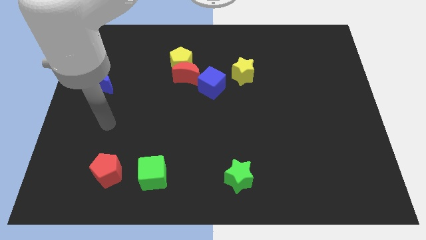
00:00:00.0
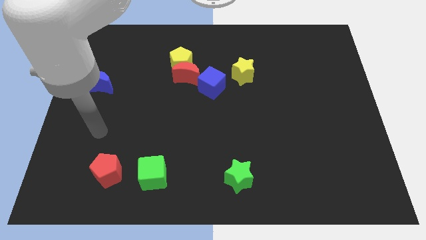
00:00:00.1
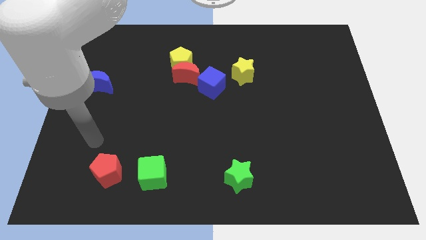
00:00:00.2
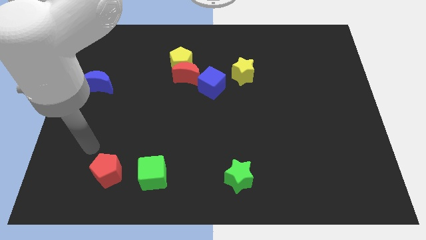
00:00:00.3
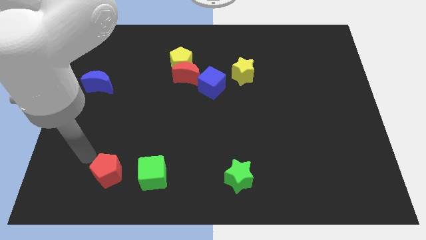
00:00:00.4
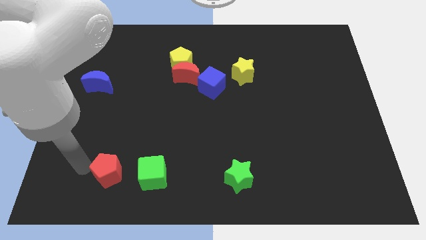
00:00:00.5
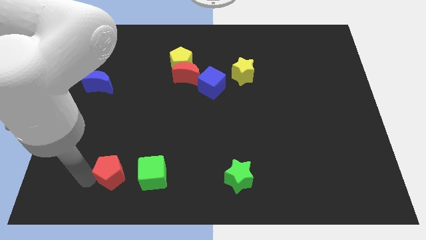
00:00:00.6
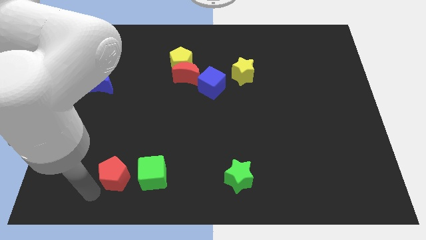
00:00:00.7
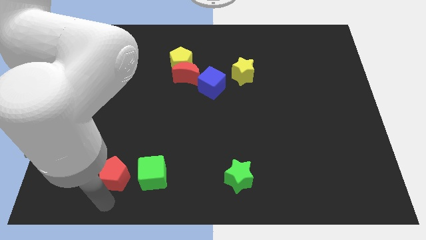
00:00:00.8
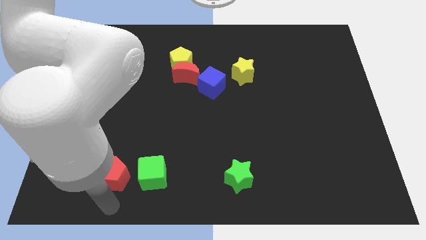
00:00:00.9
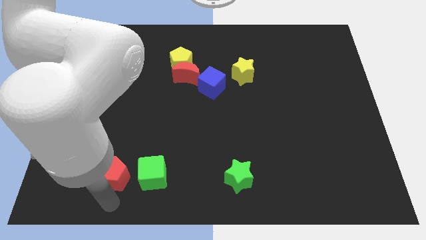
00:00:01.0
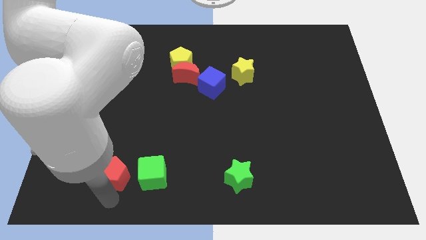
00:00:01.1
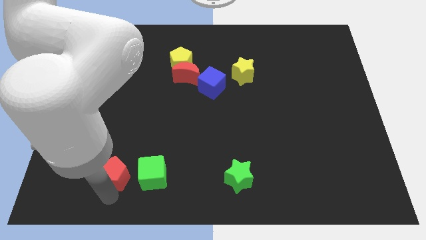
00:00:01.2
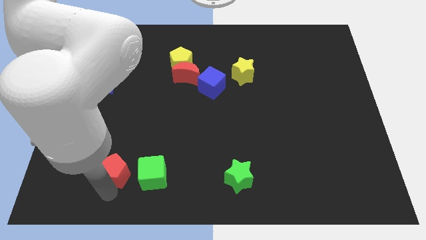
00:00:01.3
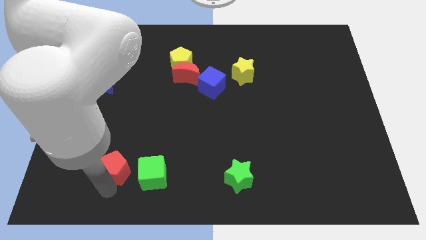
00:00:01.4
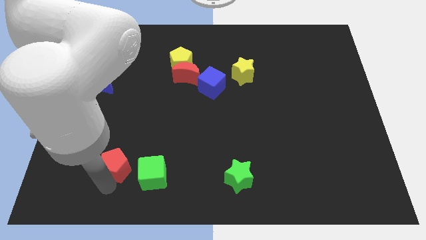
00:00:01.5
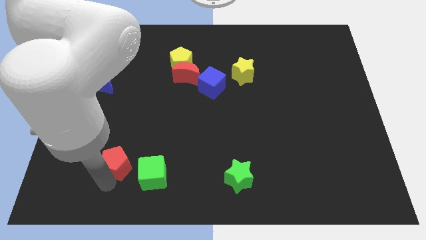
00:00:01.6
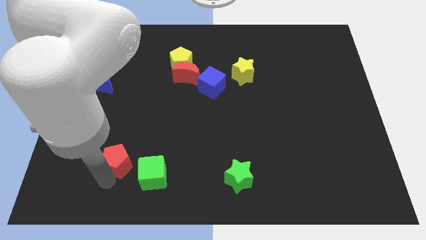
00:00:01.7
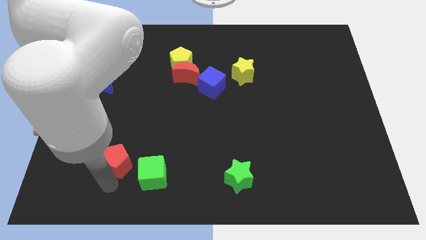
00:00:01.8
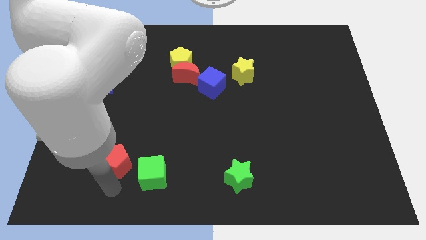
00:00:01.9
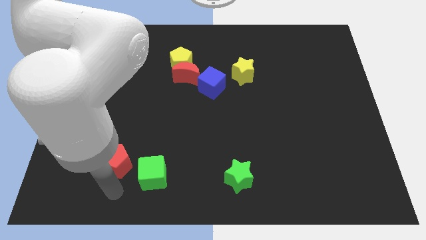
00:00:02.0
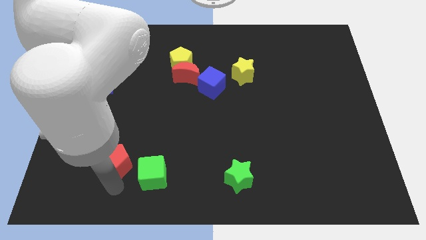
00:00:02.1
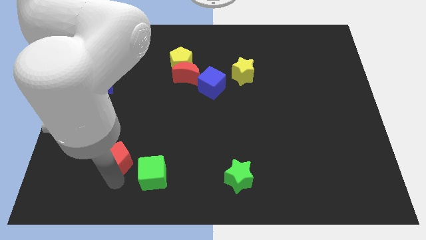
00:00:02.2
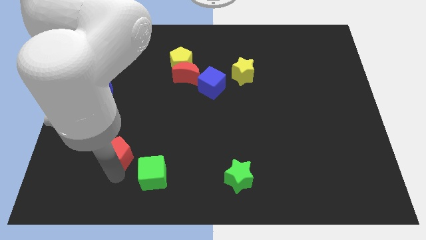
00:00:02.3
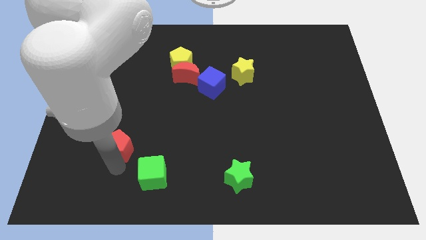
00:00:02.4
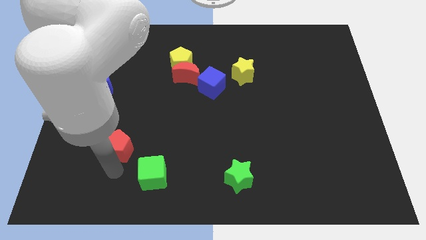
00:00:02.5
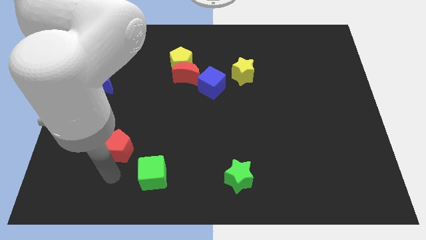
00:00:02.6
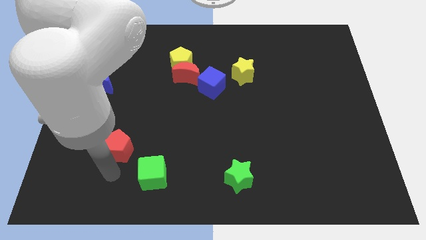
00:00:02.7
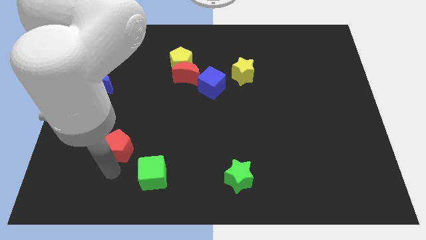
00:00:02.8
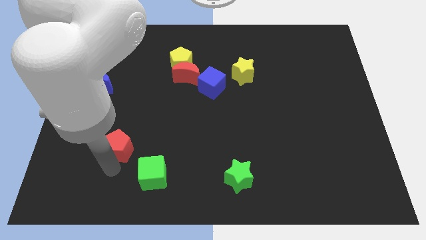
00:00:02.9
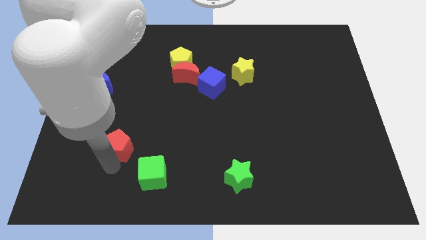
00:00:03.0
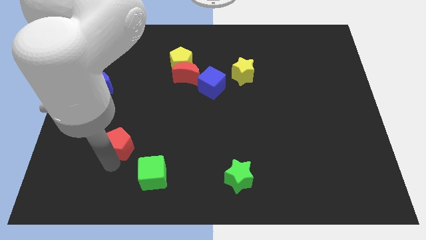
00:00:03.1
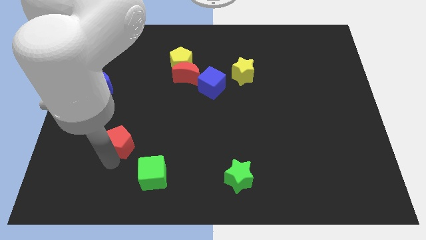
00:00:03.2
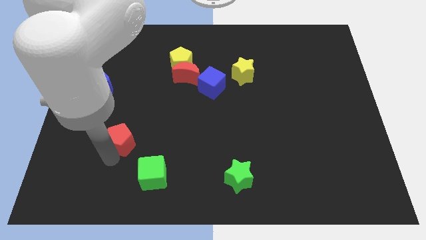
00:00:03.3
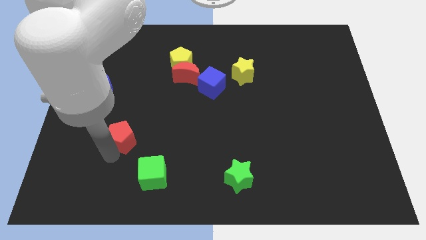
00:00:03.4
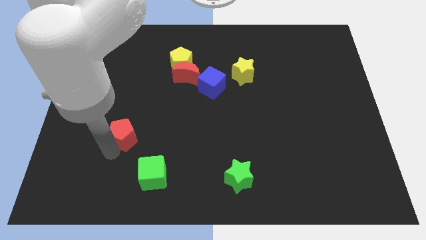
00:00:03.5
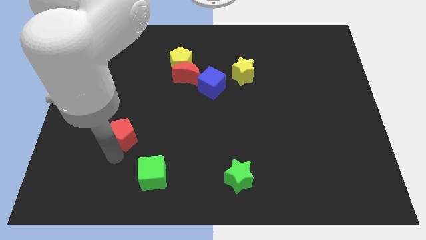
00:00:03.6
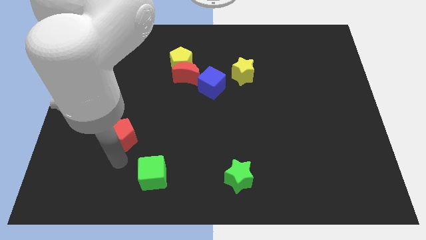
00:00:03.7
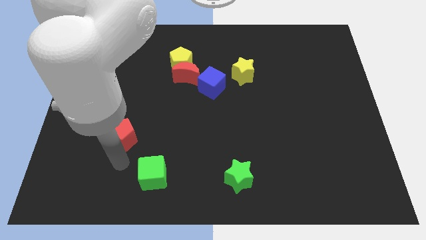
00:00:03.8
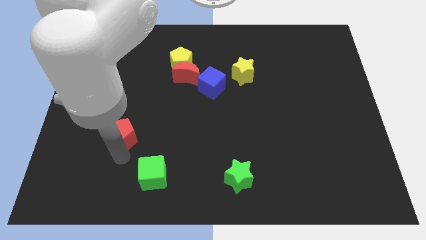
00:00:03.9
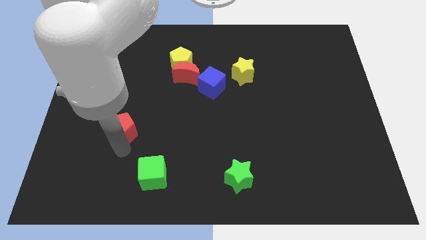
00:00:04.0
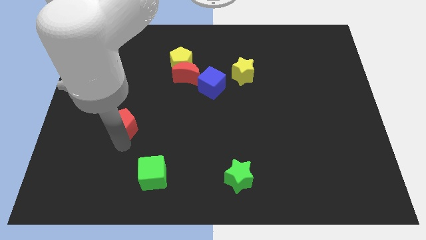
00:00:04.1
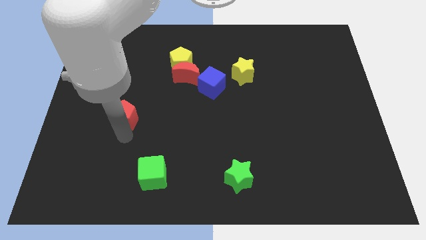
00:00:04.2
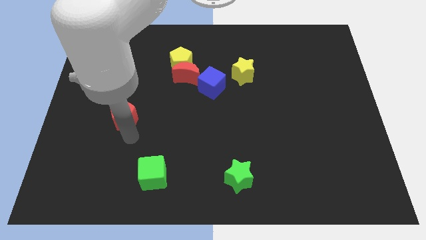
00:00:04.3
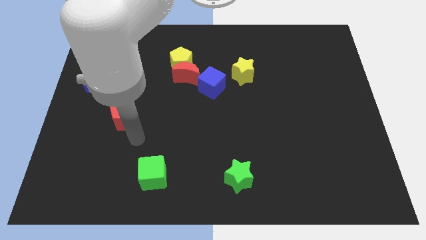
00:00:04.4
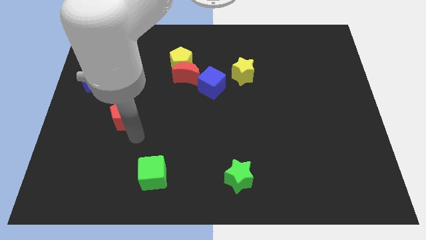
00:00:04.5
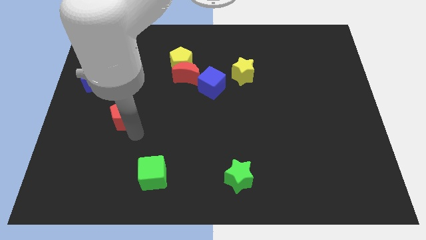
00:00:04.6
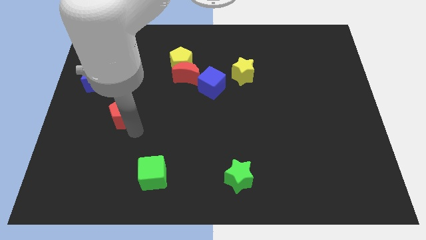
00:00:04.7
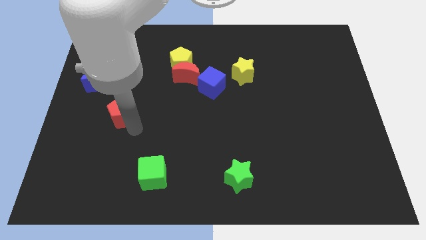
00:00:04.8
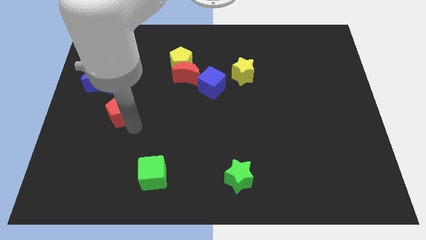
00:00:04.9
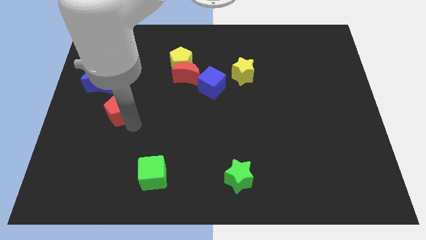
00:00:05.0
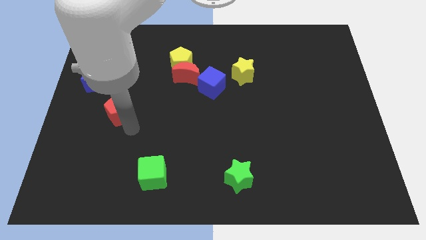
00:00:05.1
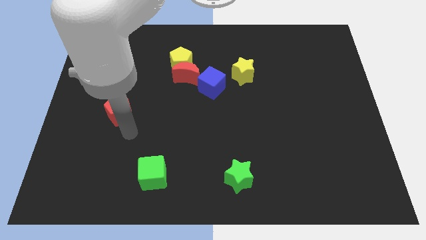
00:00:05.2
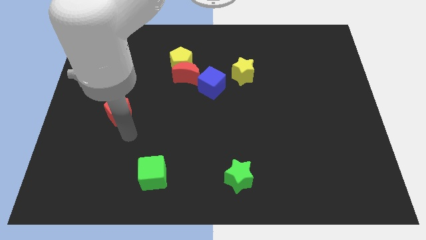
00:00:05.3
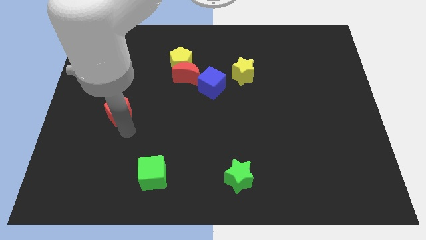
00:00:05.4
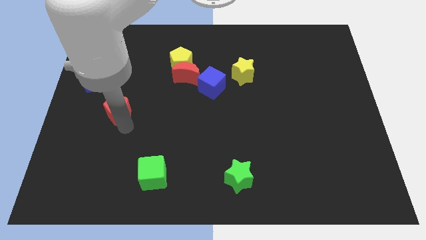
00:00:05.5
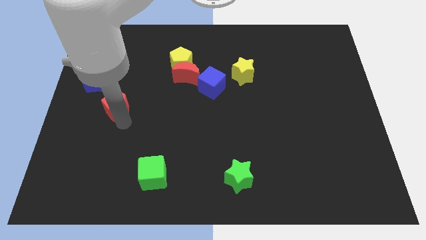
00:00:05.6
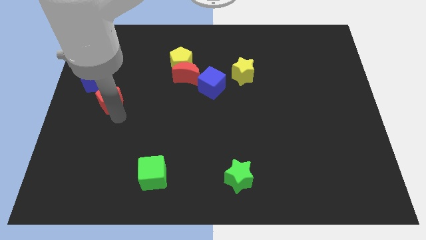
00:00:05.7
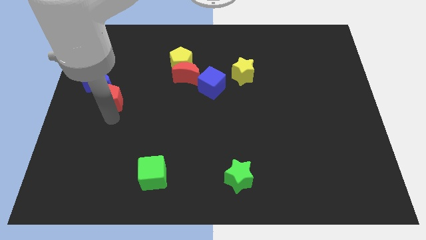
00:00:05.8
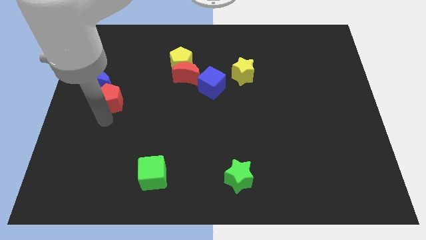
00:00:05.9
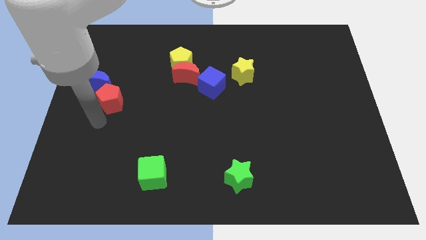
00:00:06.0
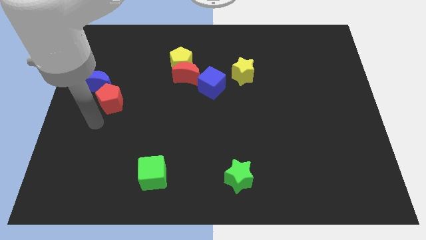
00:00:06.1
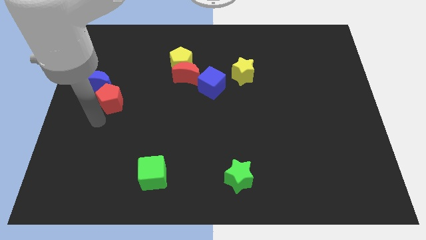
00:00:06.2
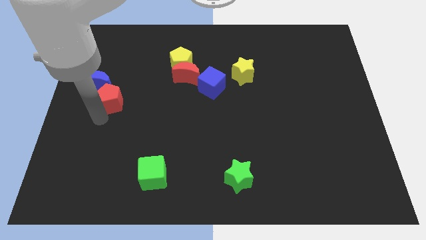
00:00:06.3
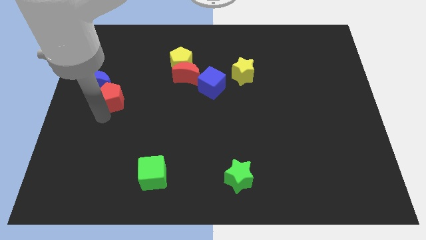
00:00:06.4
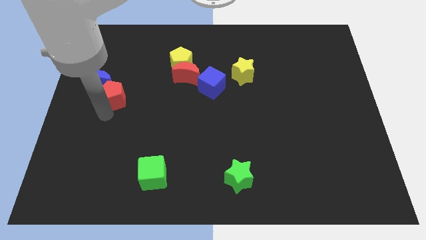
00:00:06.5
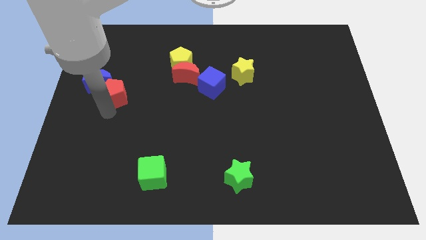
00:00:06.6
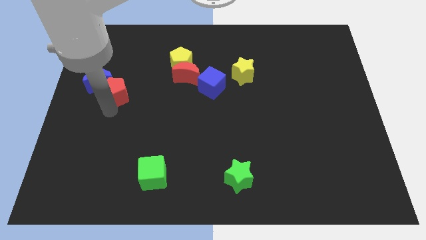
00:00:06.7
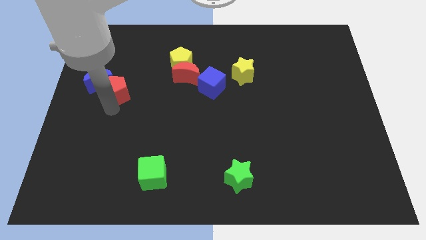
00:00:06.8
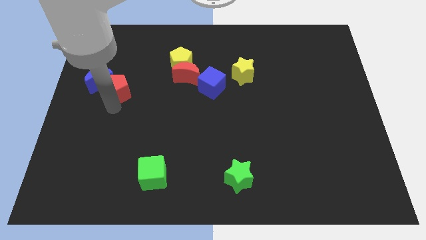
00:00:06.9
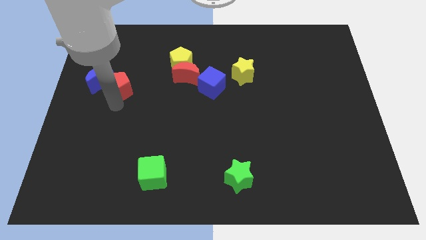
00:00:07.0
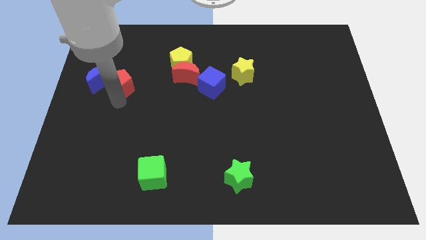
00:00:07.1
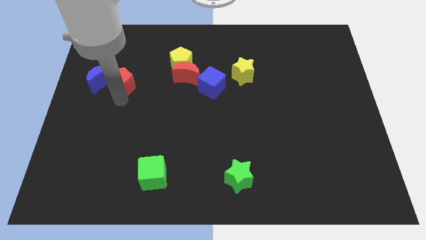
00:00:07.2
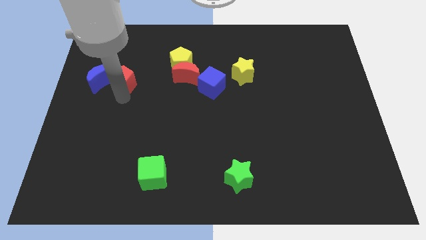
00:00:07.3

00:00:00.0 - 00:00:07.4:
push the red pentagon diagonally up and to the right of the blue moon
